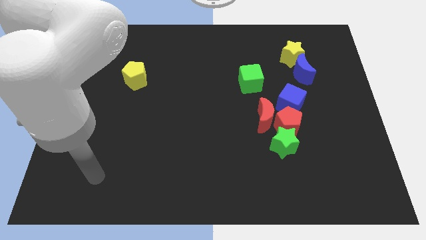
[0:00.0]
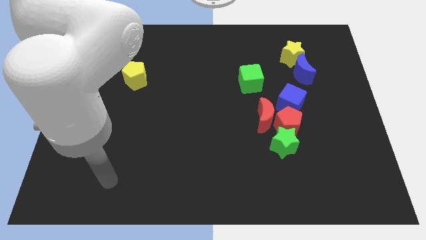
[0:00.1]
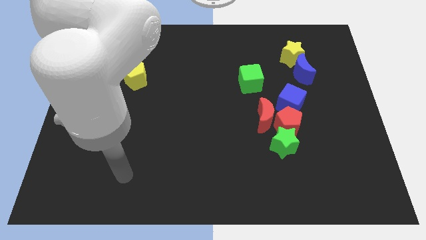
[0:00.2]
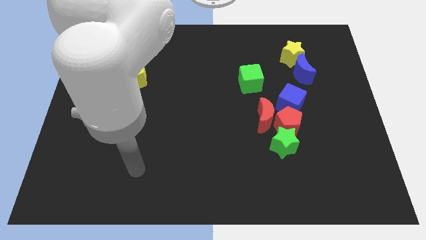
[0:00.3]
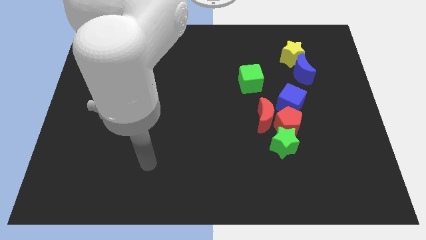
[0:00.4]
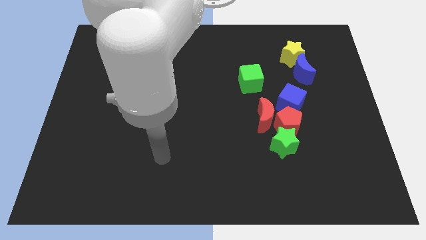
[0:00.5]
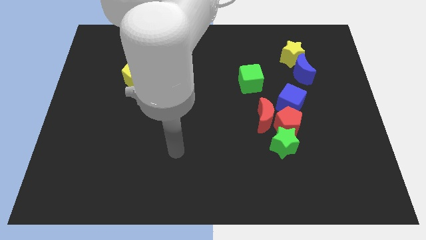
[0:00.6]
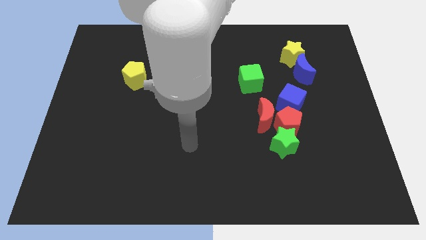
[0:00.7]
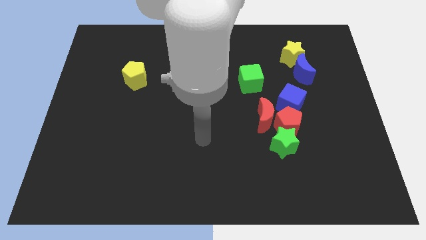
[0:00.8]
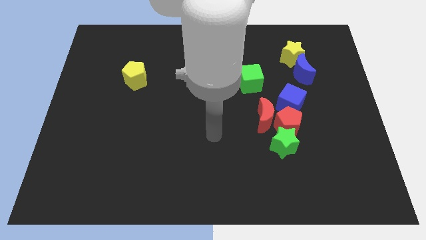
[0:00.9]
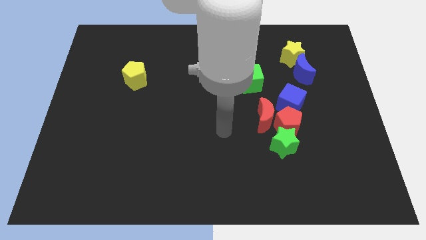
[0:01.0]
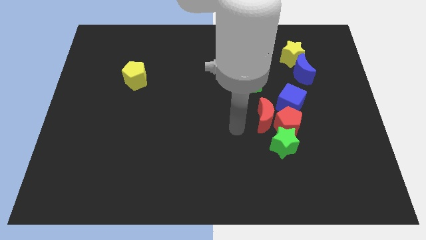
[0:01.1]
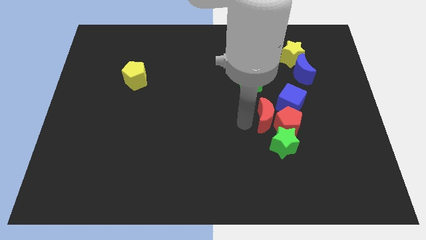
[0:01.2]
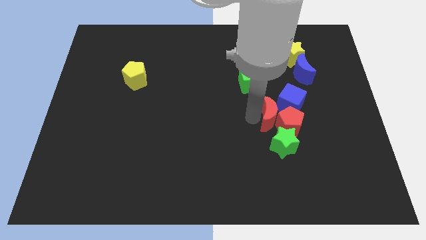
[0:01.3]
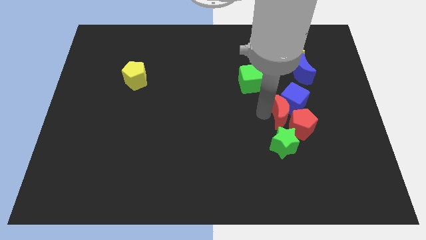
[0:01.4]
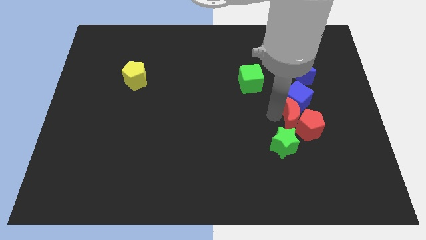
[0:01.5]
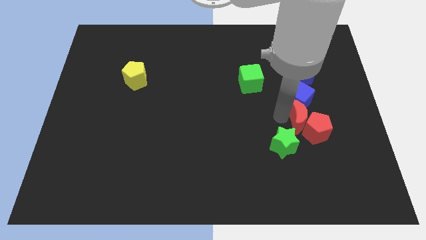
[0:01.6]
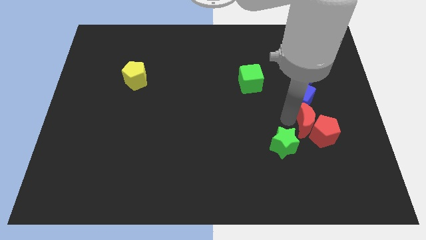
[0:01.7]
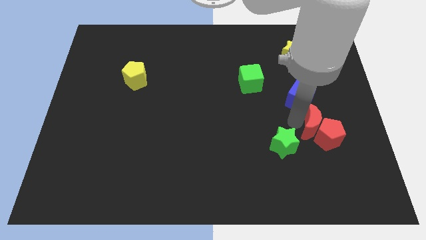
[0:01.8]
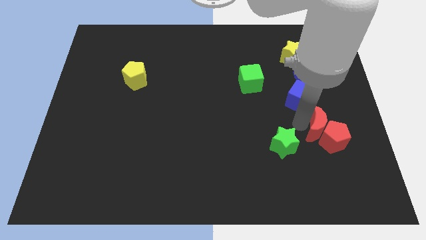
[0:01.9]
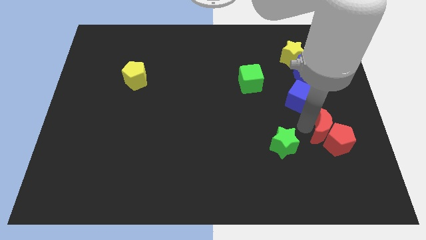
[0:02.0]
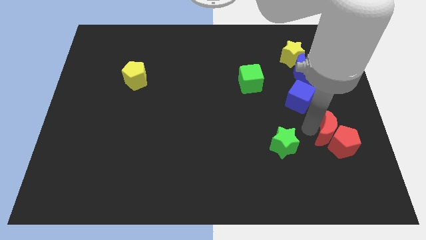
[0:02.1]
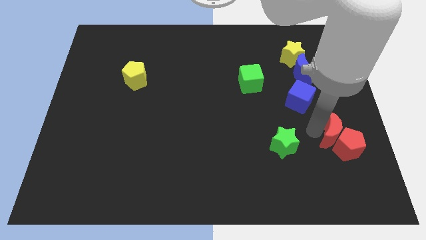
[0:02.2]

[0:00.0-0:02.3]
move the red pentagon away from the green star, red moon, and blue cube

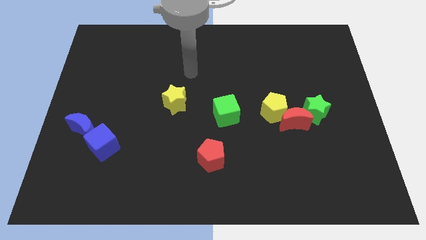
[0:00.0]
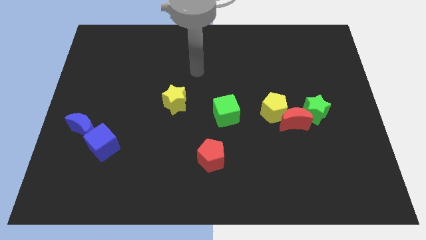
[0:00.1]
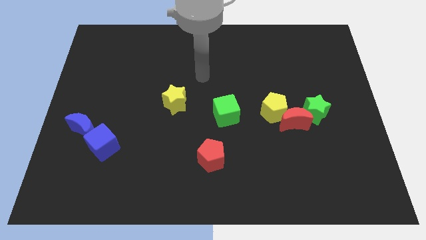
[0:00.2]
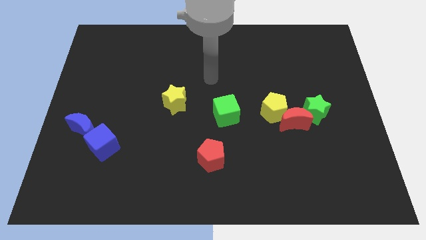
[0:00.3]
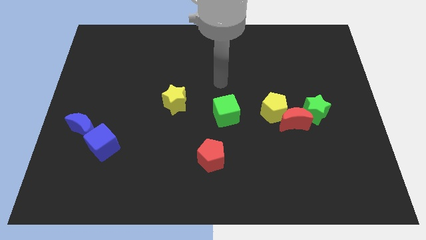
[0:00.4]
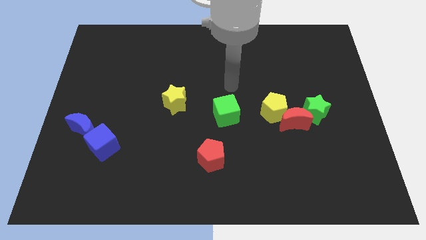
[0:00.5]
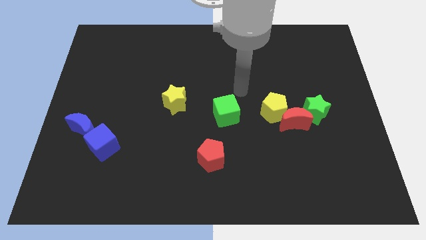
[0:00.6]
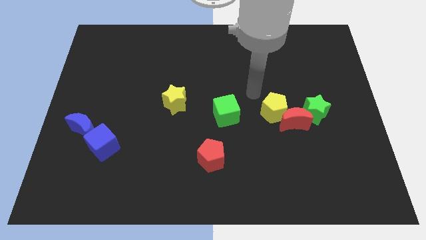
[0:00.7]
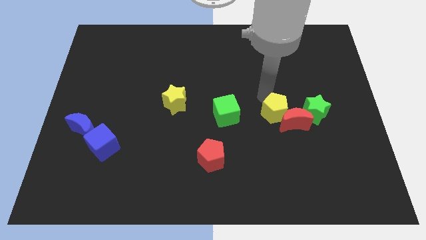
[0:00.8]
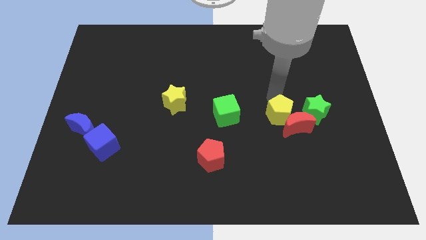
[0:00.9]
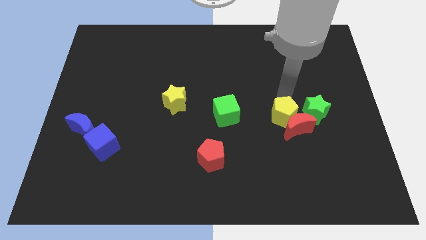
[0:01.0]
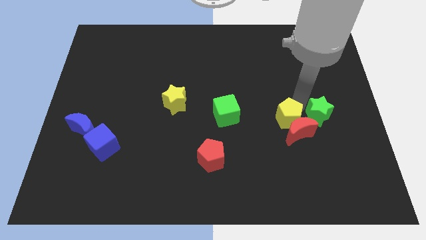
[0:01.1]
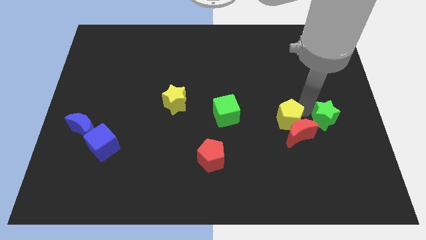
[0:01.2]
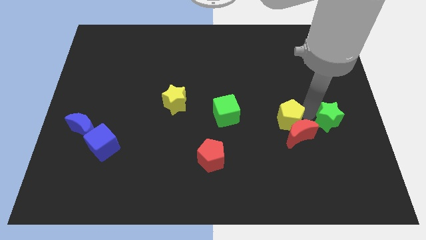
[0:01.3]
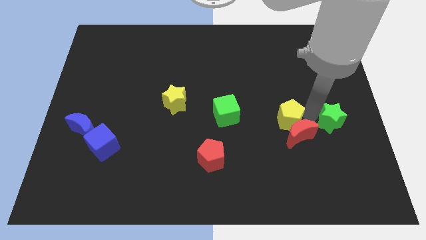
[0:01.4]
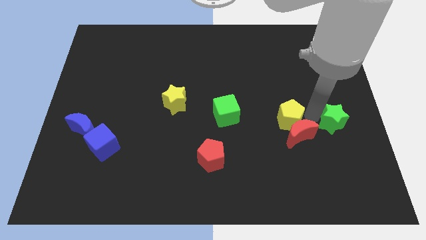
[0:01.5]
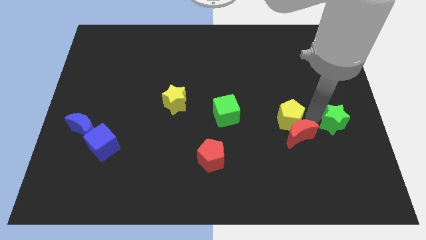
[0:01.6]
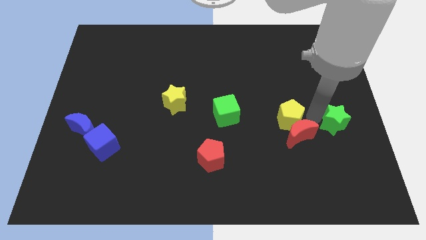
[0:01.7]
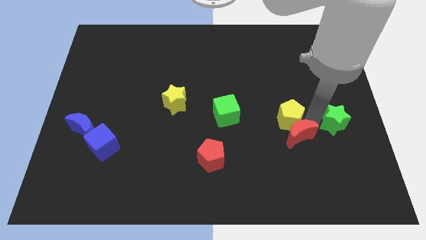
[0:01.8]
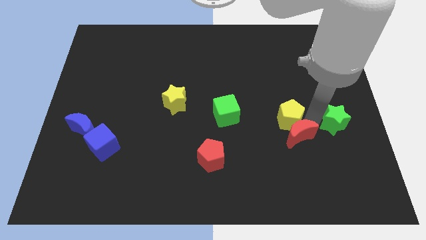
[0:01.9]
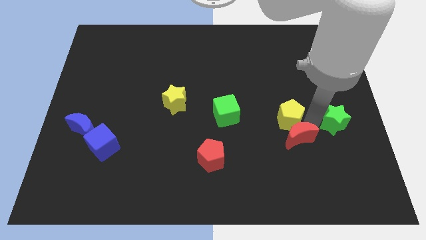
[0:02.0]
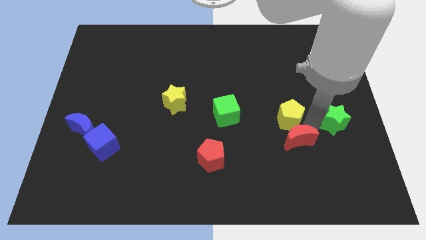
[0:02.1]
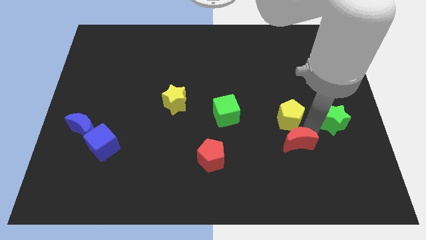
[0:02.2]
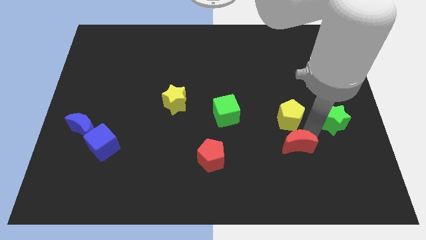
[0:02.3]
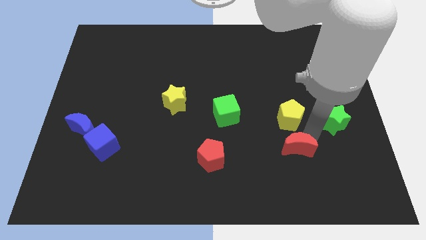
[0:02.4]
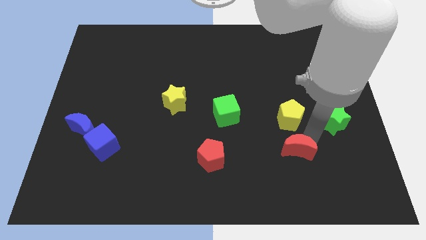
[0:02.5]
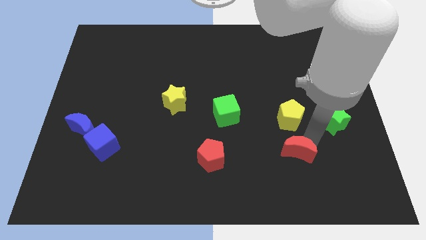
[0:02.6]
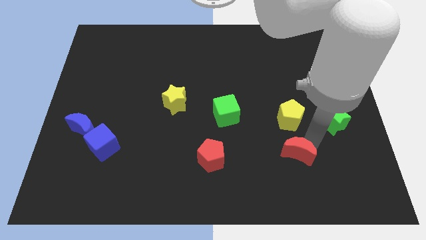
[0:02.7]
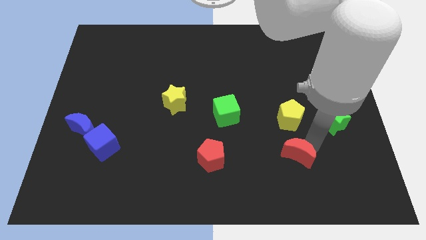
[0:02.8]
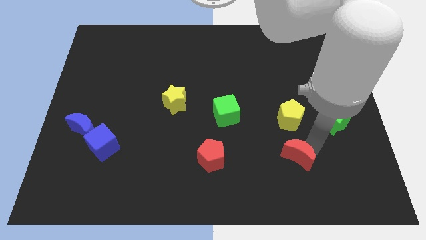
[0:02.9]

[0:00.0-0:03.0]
pull the red moon apart from the yellow pentagon and green star

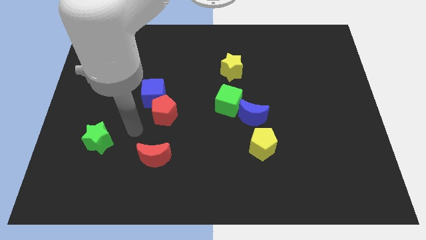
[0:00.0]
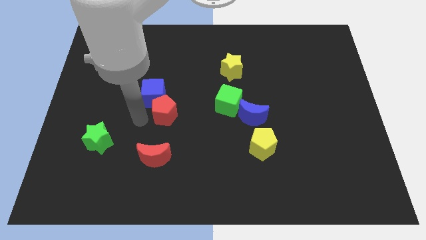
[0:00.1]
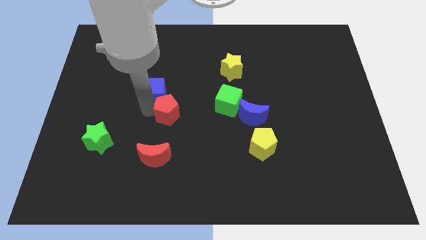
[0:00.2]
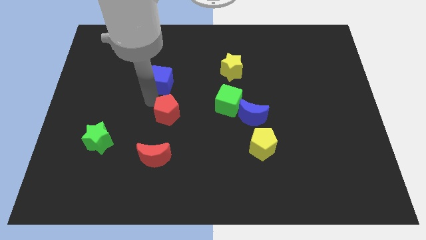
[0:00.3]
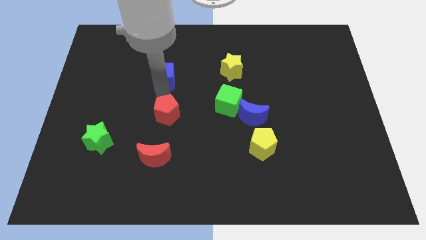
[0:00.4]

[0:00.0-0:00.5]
move the red pentagon away from the blue cube

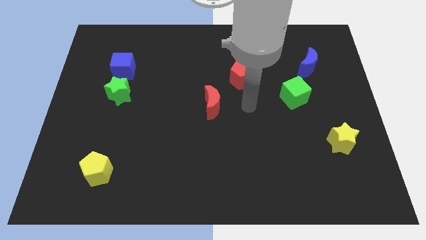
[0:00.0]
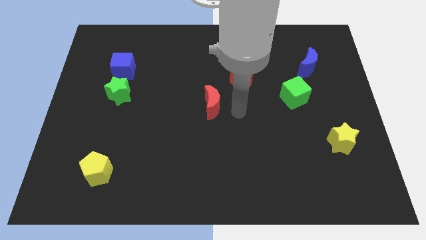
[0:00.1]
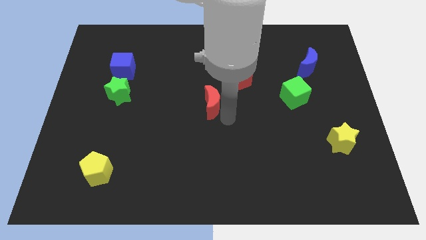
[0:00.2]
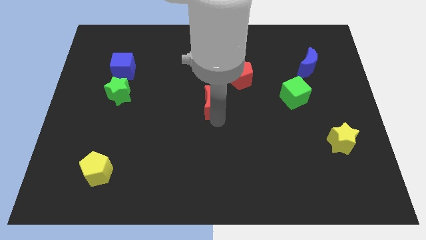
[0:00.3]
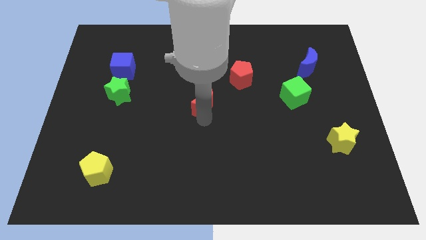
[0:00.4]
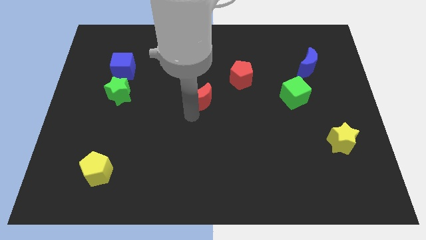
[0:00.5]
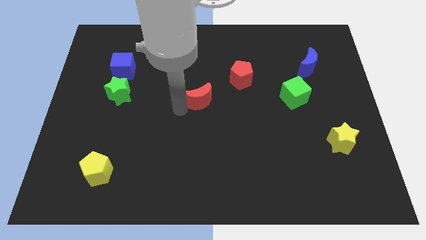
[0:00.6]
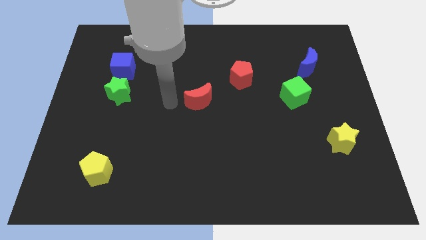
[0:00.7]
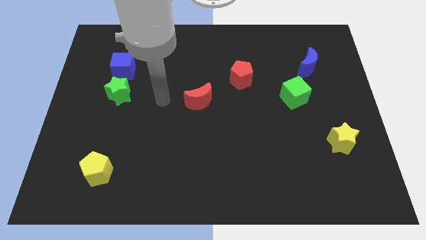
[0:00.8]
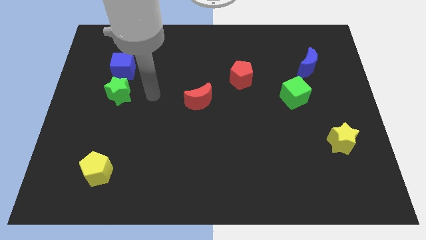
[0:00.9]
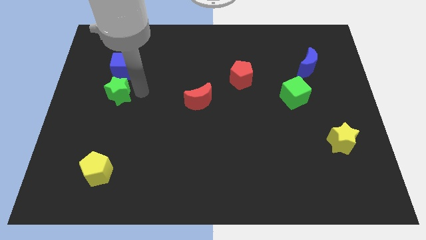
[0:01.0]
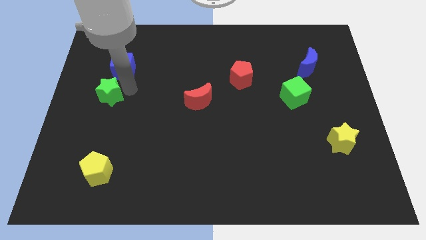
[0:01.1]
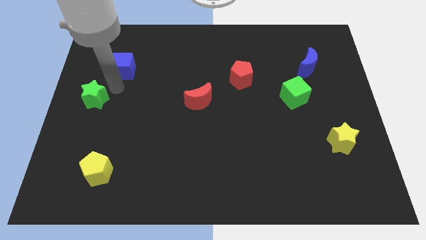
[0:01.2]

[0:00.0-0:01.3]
move the blue cube away from the green star

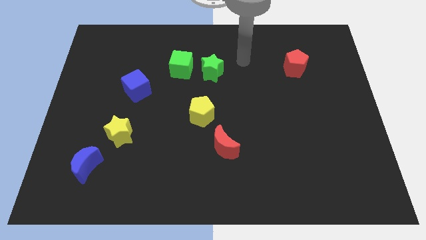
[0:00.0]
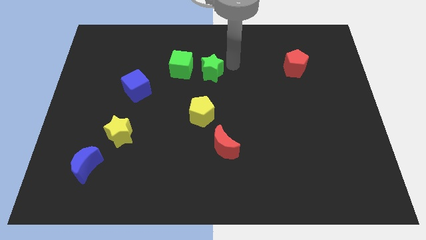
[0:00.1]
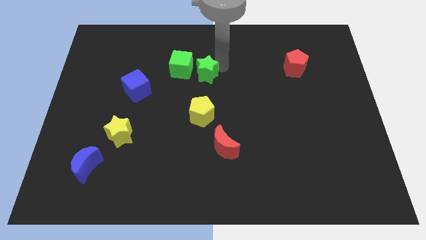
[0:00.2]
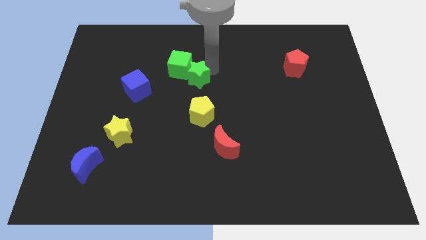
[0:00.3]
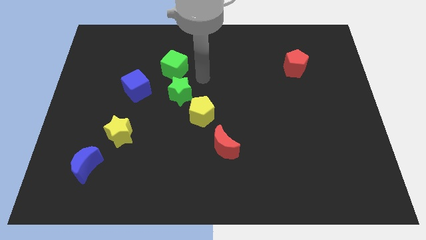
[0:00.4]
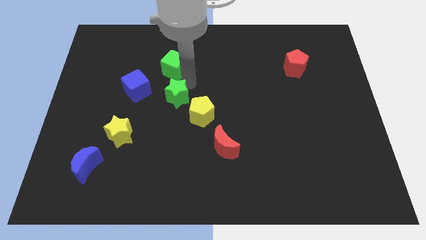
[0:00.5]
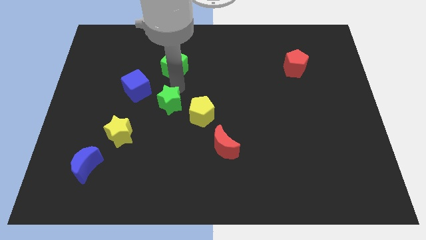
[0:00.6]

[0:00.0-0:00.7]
pull the green cube apart from the green star

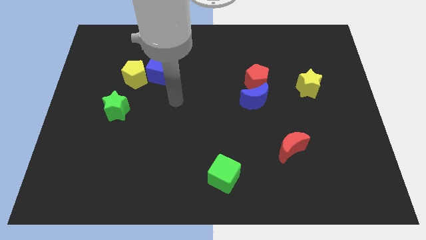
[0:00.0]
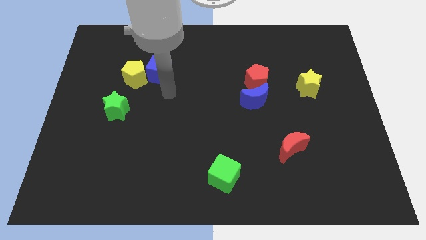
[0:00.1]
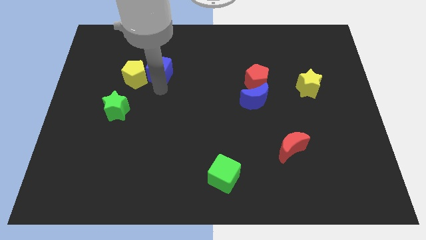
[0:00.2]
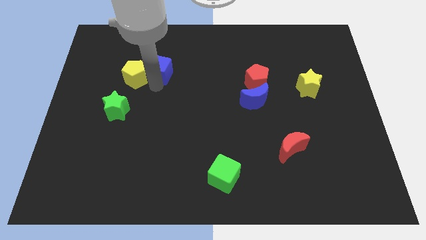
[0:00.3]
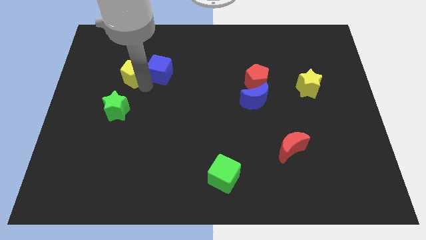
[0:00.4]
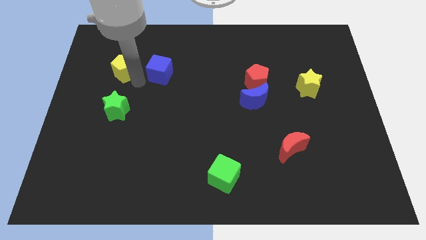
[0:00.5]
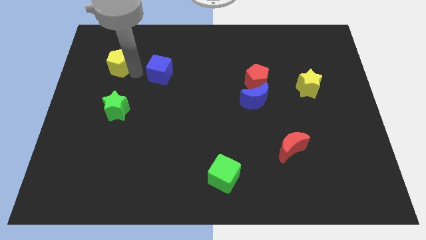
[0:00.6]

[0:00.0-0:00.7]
separate the blue cube from the yellow pentagon

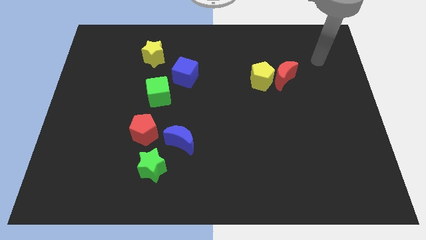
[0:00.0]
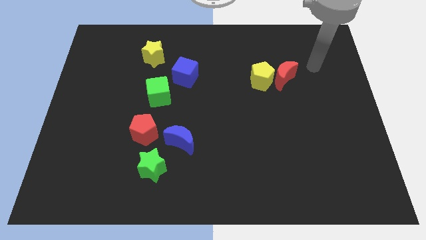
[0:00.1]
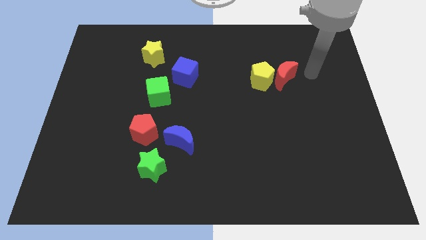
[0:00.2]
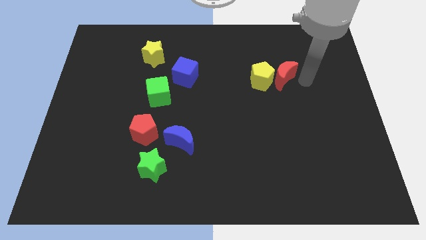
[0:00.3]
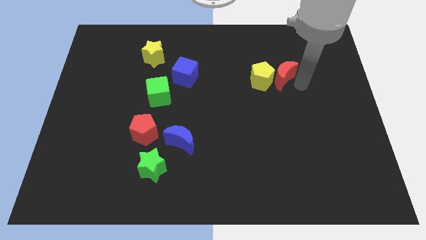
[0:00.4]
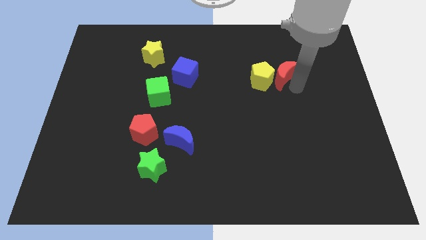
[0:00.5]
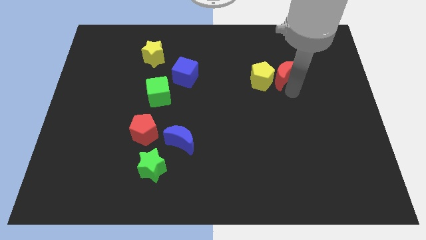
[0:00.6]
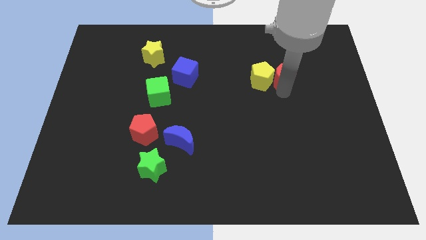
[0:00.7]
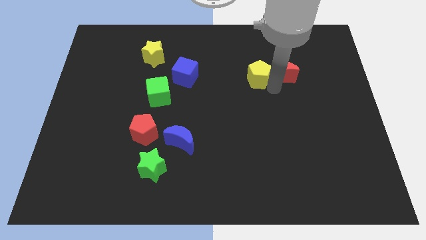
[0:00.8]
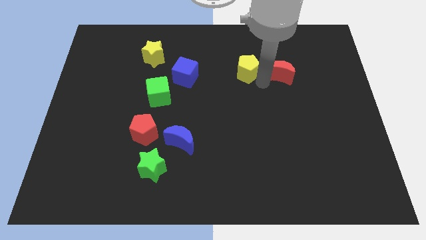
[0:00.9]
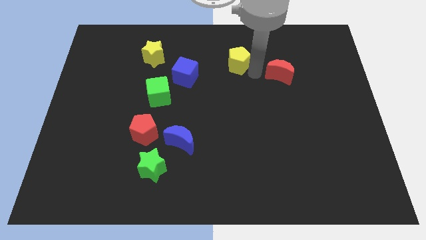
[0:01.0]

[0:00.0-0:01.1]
pull the red moon apart from the yellow pentagon
